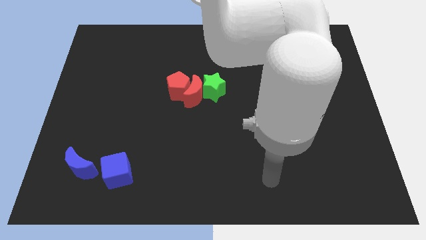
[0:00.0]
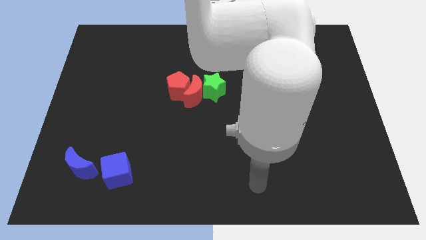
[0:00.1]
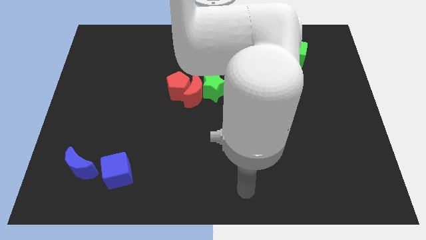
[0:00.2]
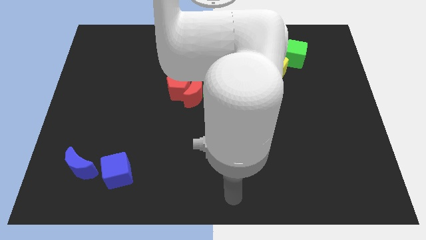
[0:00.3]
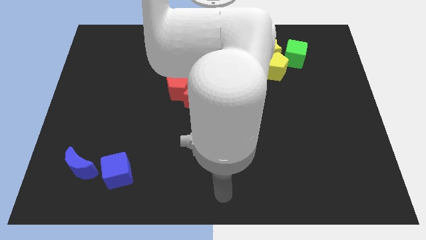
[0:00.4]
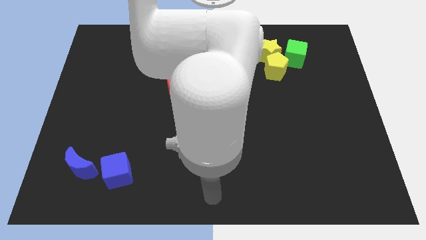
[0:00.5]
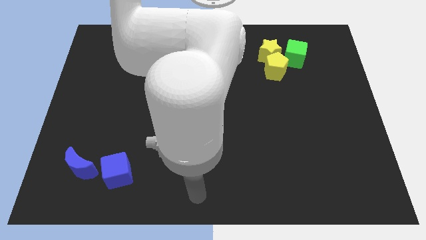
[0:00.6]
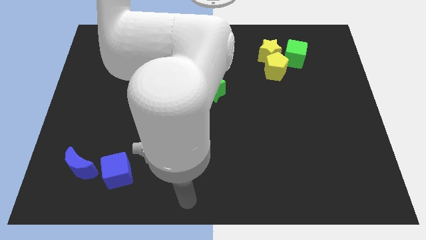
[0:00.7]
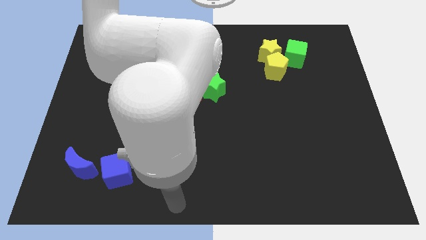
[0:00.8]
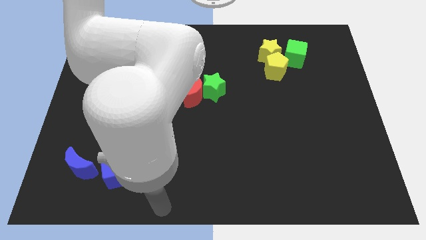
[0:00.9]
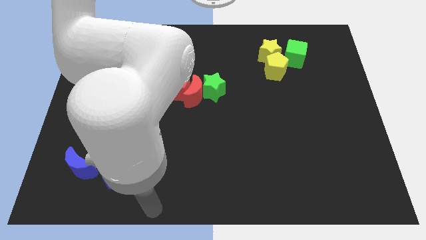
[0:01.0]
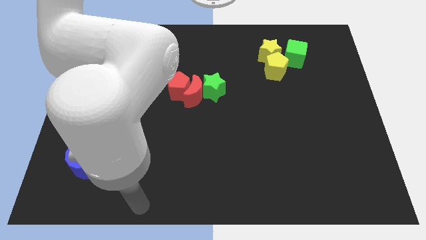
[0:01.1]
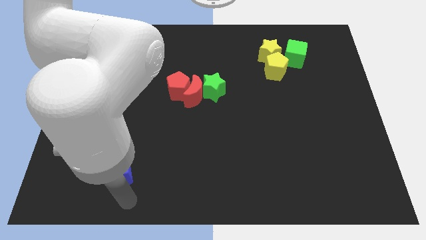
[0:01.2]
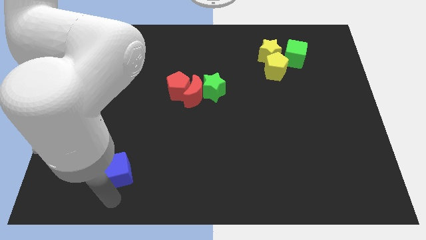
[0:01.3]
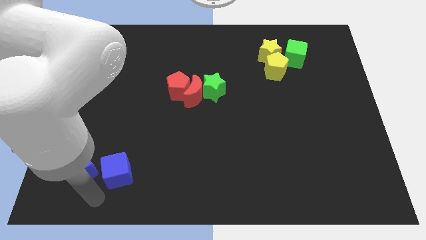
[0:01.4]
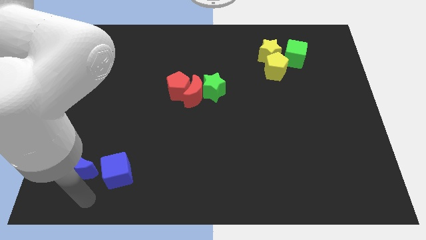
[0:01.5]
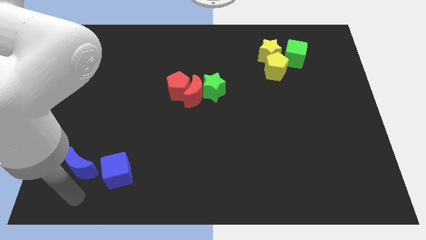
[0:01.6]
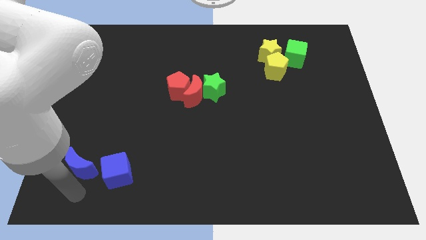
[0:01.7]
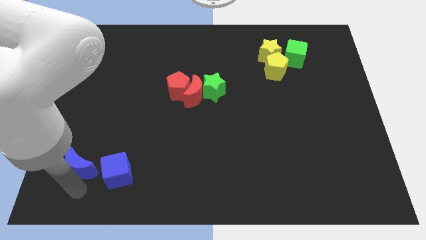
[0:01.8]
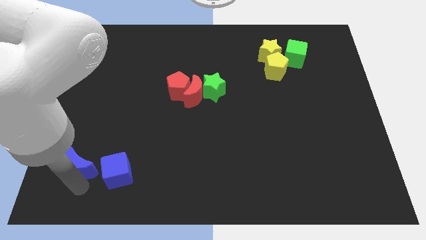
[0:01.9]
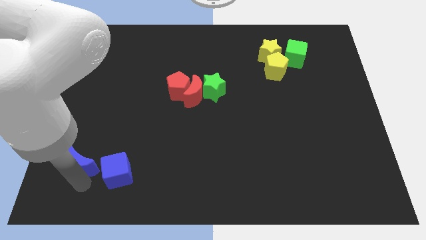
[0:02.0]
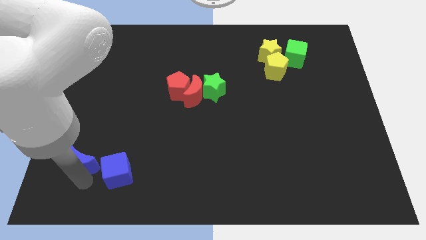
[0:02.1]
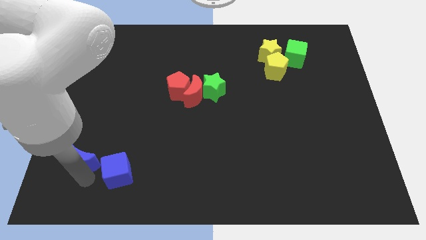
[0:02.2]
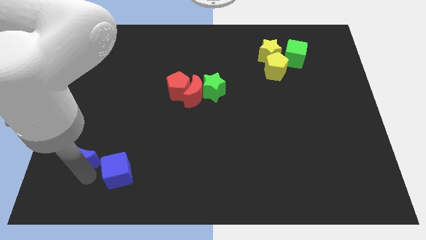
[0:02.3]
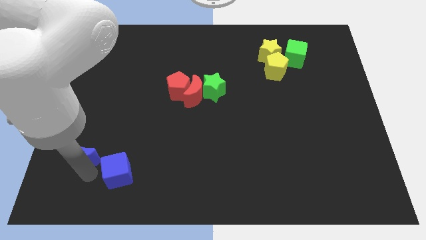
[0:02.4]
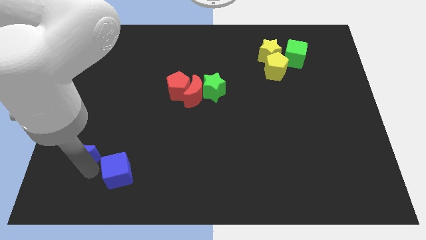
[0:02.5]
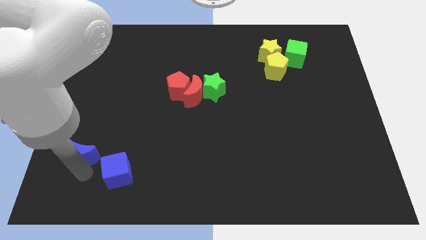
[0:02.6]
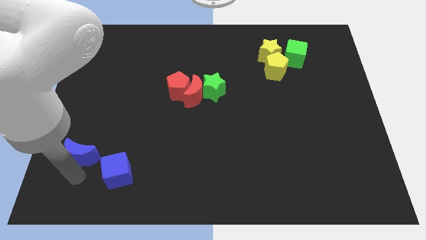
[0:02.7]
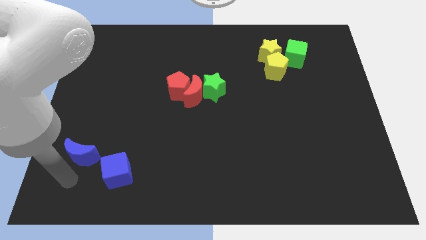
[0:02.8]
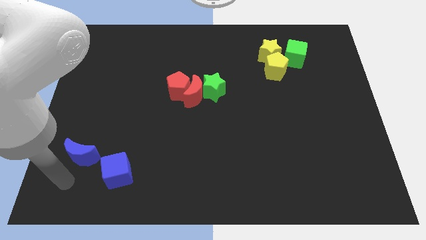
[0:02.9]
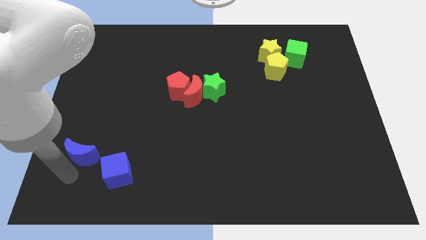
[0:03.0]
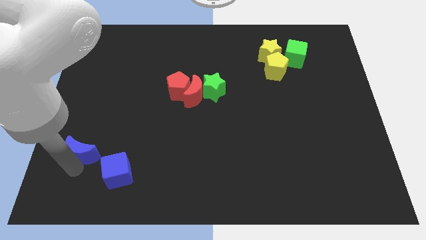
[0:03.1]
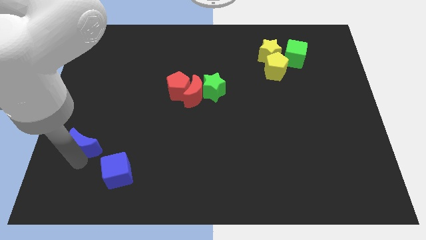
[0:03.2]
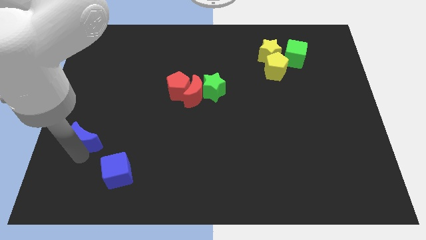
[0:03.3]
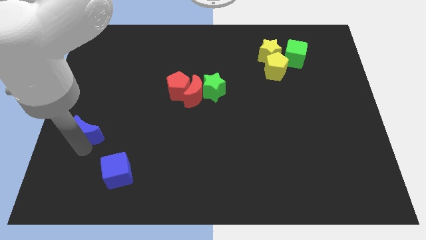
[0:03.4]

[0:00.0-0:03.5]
slightly slide the blue moon up

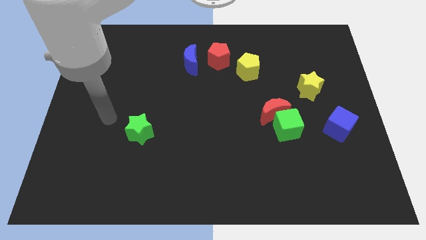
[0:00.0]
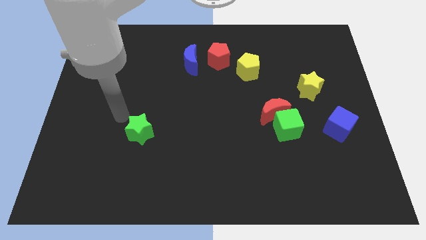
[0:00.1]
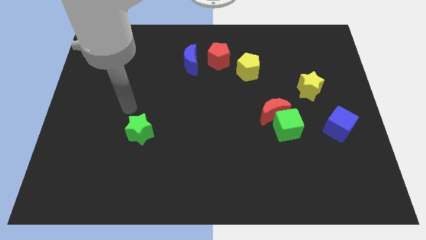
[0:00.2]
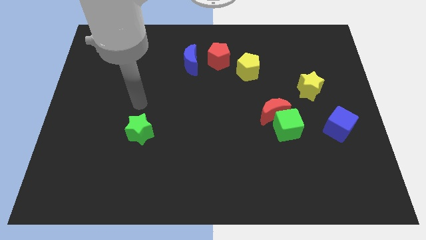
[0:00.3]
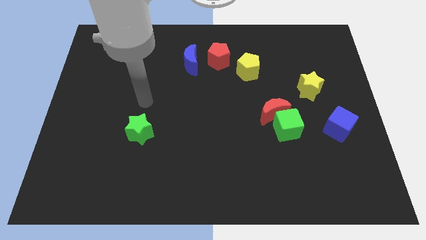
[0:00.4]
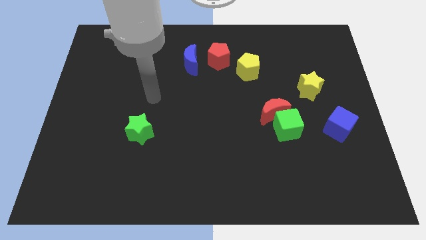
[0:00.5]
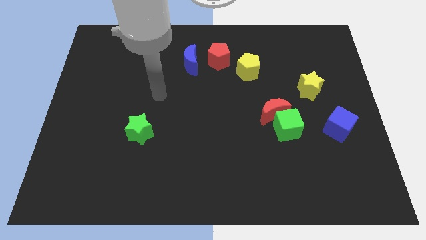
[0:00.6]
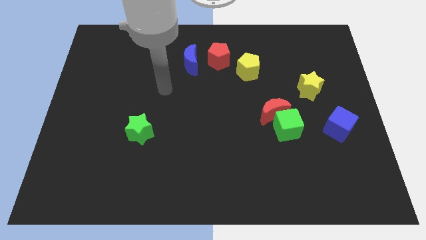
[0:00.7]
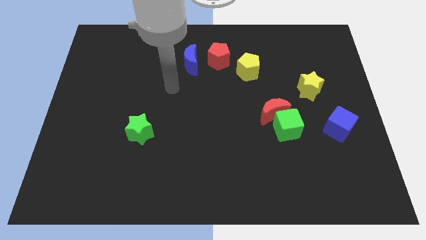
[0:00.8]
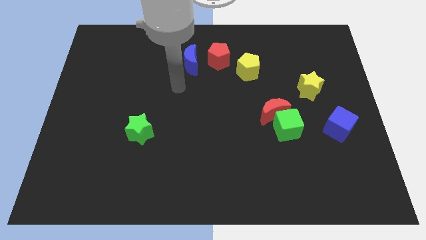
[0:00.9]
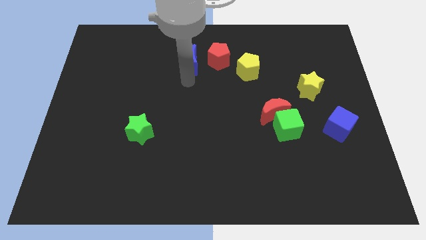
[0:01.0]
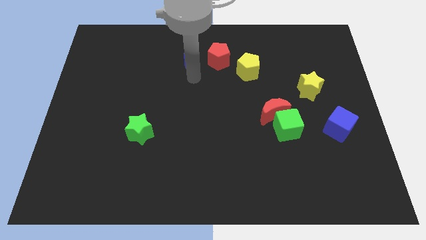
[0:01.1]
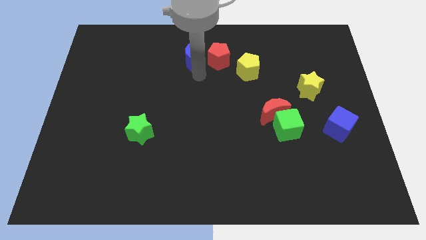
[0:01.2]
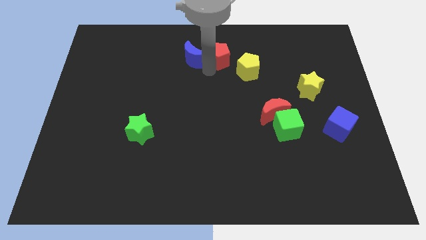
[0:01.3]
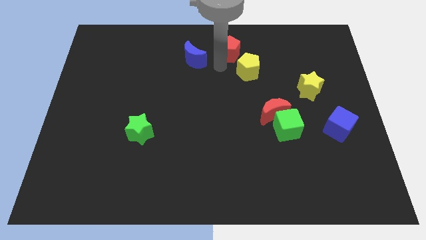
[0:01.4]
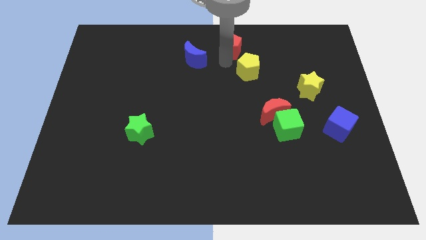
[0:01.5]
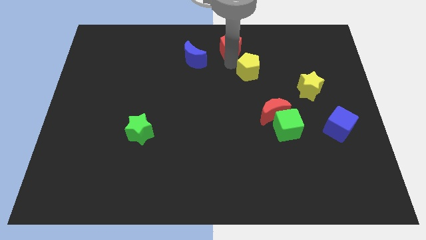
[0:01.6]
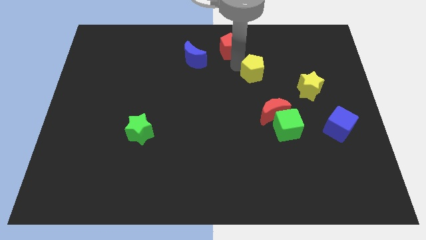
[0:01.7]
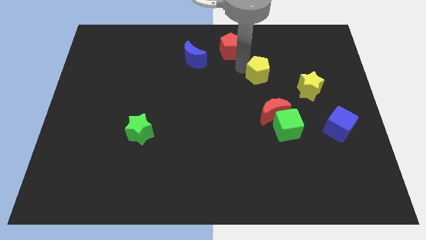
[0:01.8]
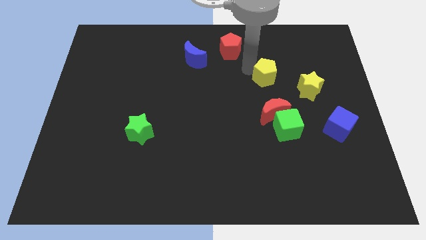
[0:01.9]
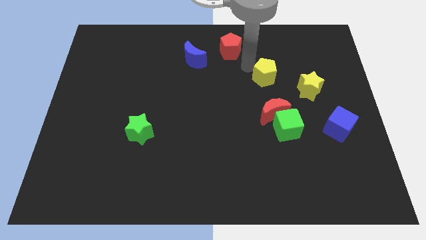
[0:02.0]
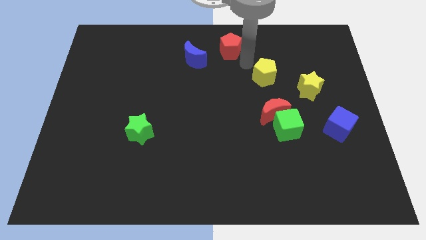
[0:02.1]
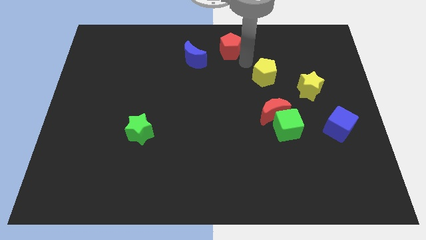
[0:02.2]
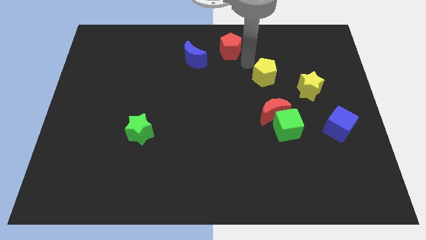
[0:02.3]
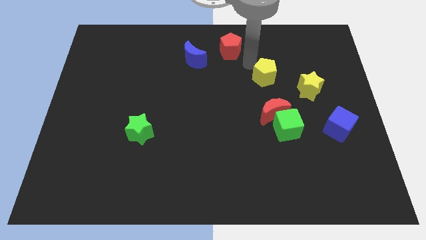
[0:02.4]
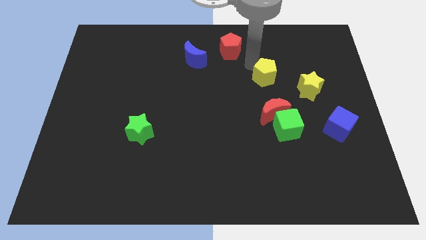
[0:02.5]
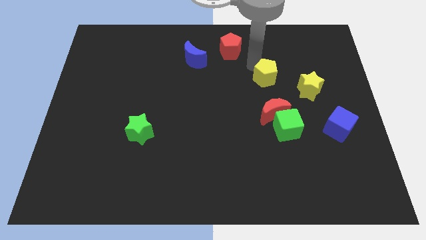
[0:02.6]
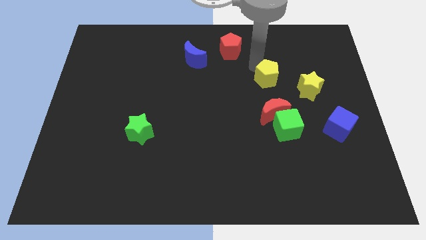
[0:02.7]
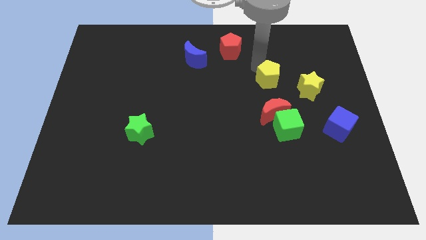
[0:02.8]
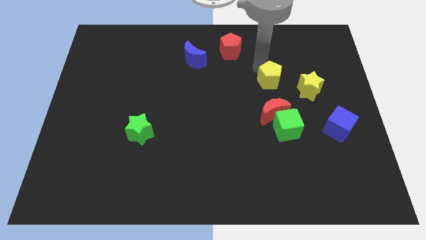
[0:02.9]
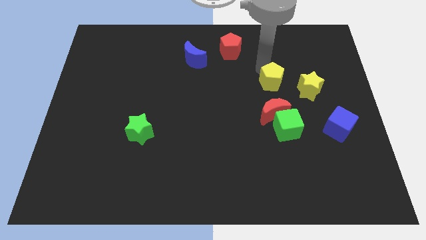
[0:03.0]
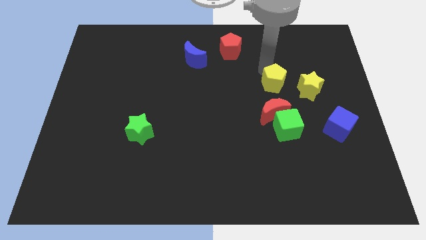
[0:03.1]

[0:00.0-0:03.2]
slightly move the yellow pentagon diagonally downwards and to the right

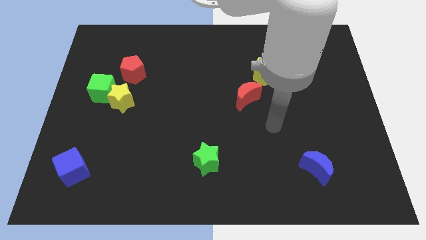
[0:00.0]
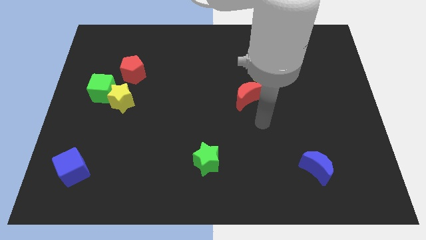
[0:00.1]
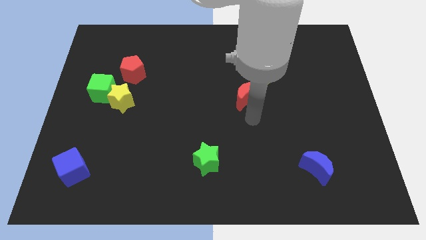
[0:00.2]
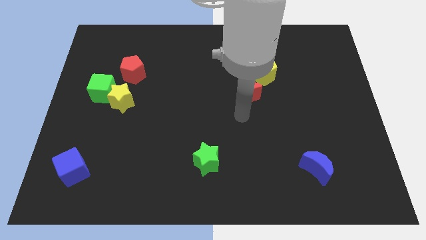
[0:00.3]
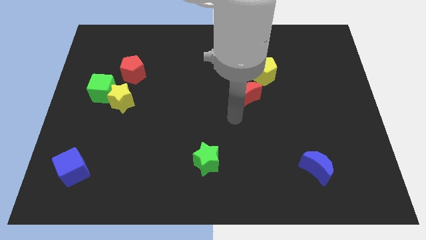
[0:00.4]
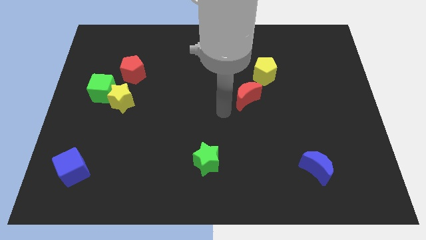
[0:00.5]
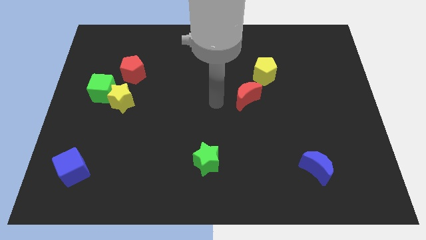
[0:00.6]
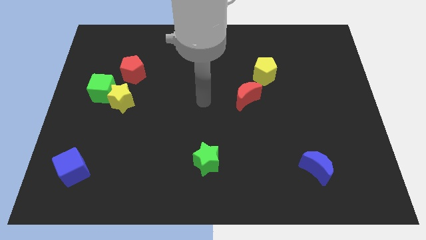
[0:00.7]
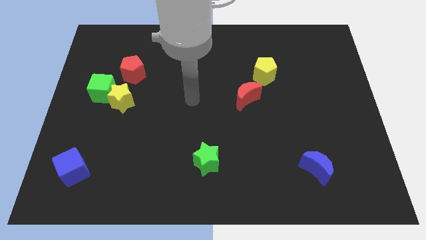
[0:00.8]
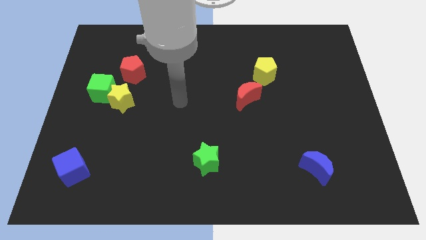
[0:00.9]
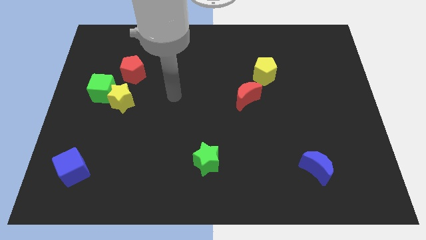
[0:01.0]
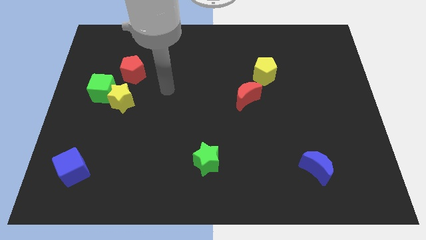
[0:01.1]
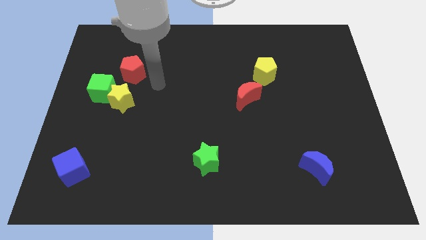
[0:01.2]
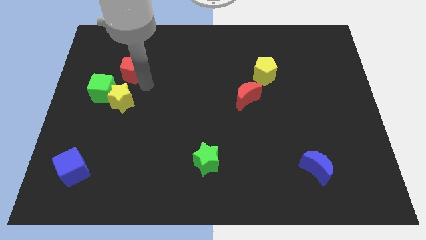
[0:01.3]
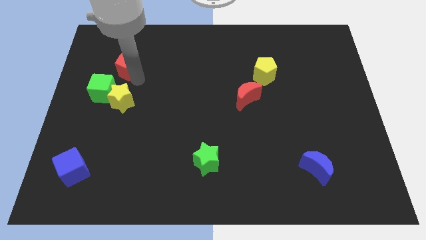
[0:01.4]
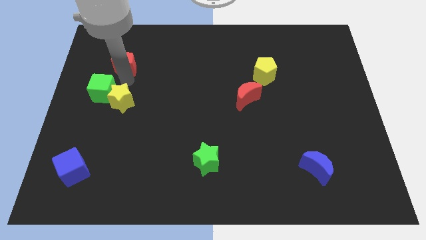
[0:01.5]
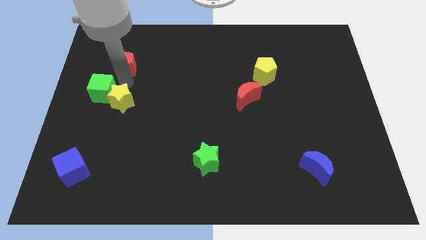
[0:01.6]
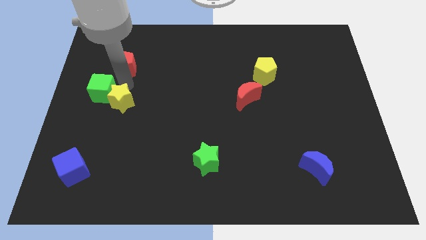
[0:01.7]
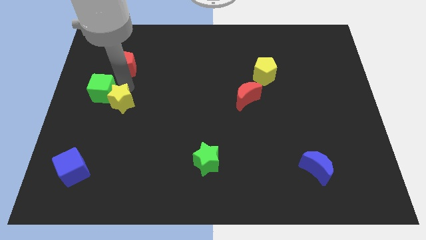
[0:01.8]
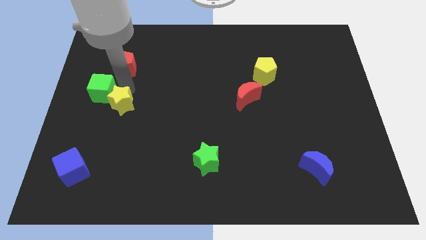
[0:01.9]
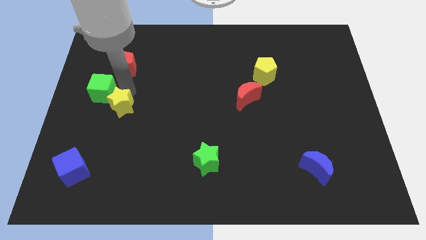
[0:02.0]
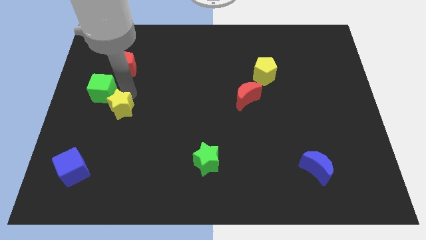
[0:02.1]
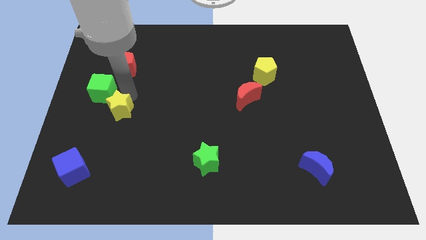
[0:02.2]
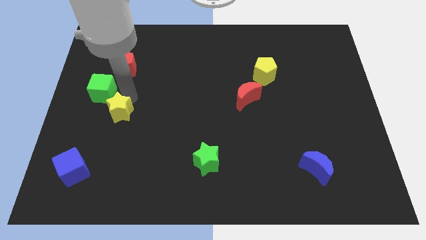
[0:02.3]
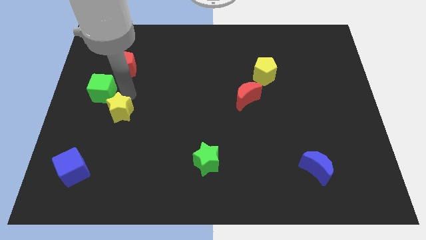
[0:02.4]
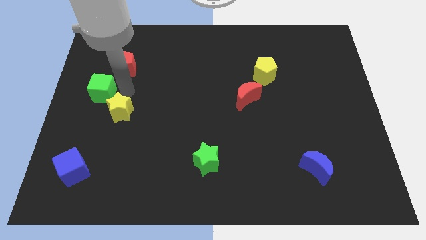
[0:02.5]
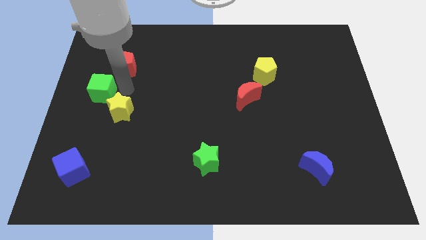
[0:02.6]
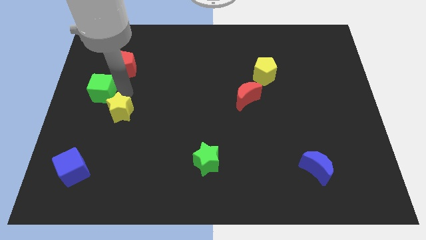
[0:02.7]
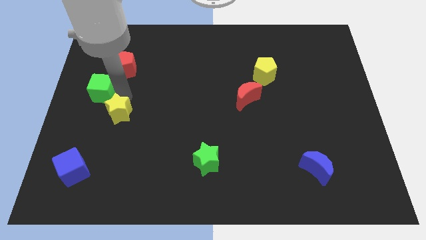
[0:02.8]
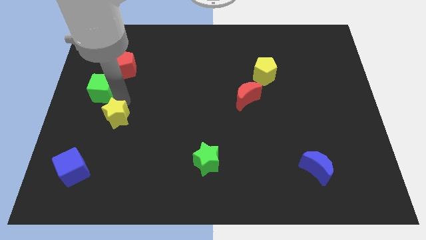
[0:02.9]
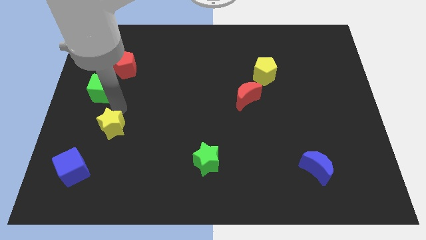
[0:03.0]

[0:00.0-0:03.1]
move the yellow star slightly downwards
